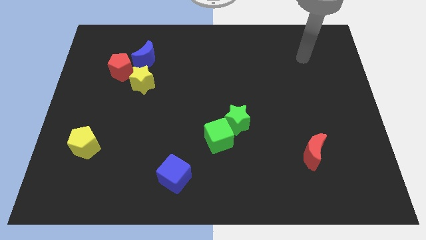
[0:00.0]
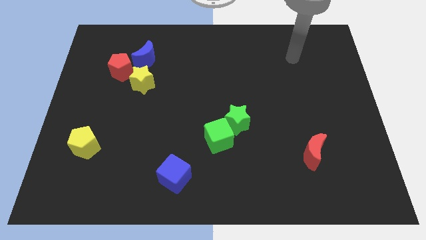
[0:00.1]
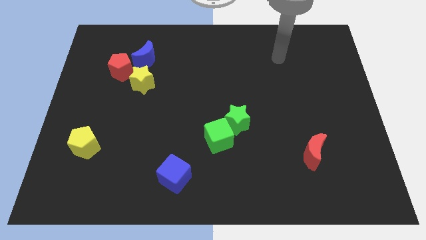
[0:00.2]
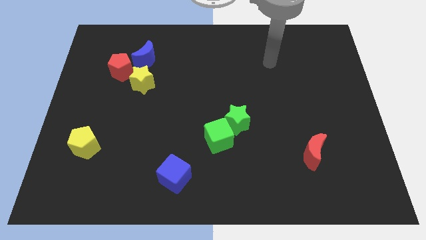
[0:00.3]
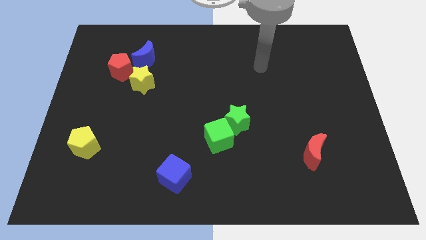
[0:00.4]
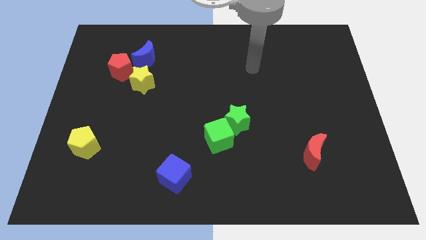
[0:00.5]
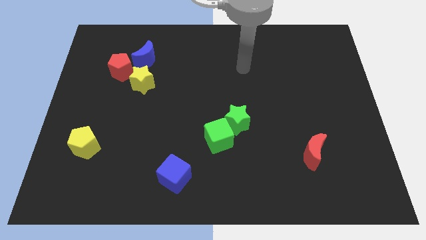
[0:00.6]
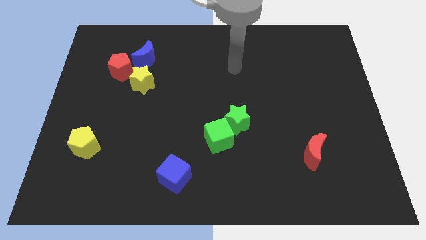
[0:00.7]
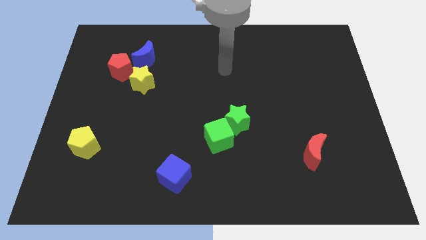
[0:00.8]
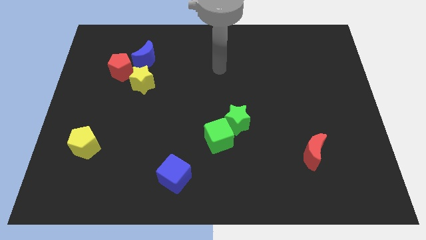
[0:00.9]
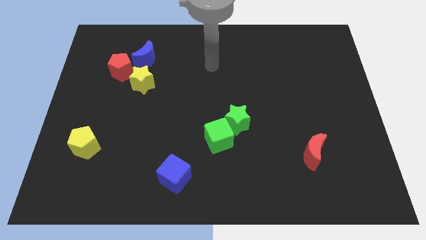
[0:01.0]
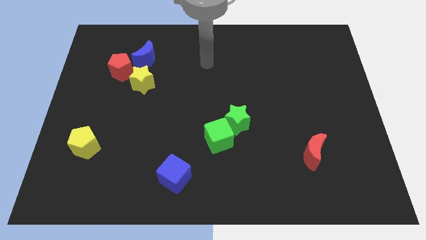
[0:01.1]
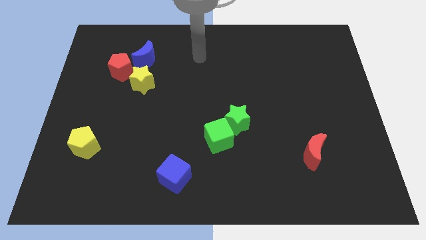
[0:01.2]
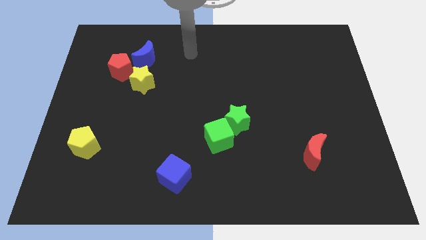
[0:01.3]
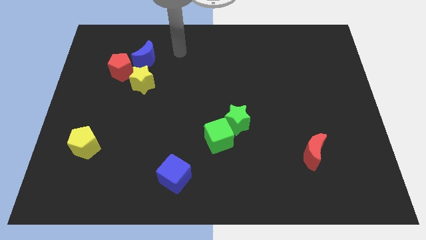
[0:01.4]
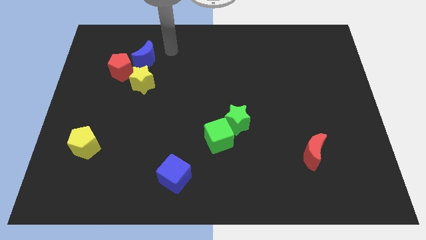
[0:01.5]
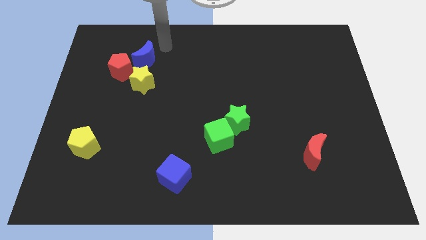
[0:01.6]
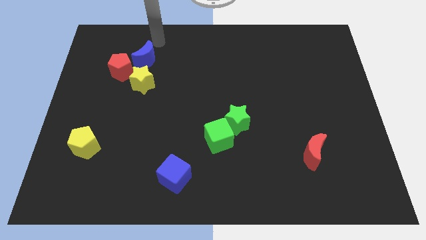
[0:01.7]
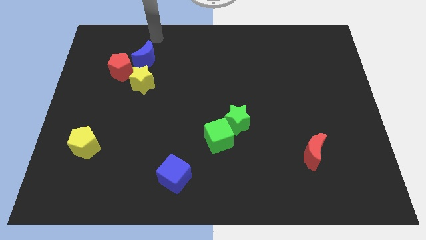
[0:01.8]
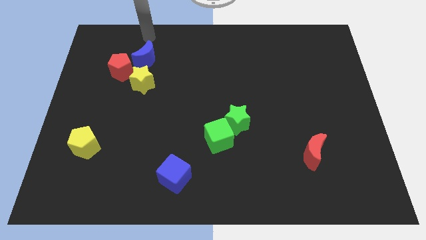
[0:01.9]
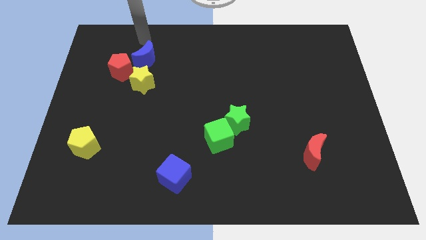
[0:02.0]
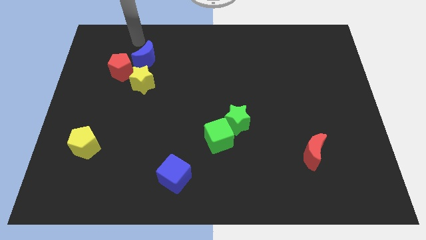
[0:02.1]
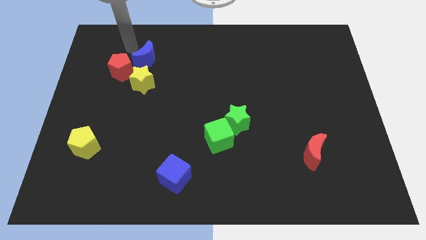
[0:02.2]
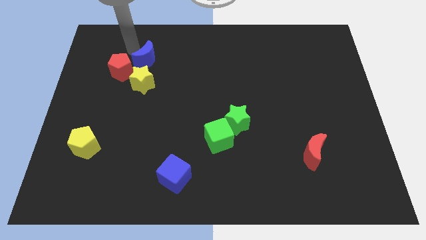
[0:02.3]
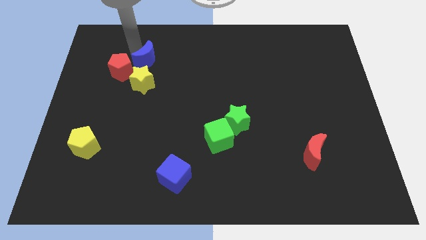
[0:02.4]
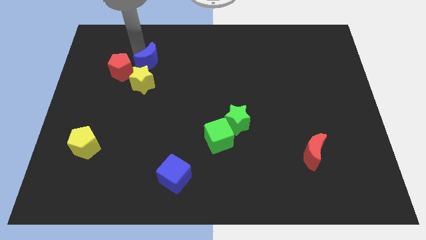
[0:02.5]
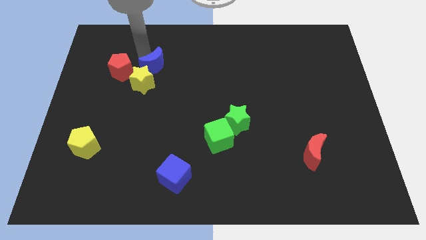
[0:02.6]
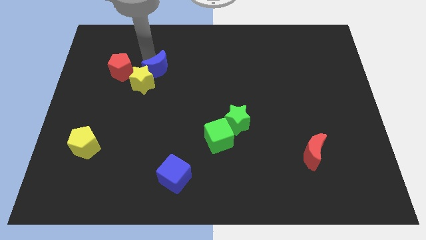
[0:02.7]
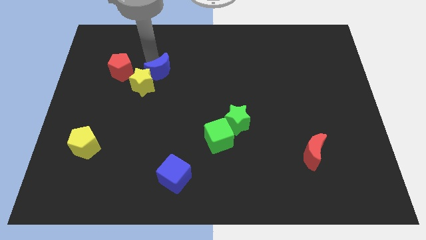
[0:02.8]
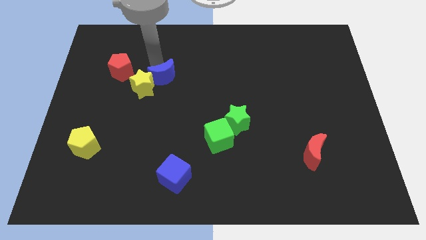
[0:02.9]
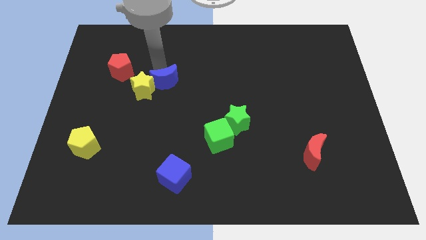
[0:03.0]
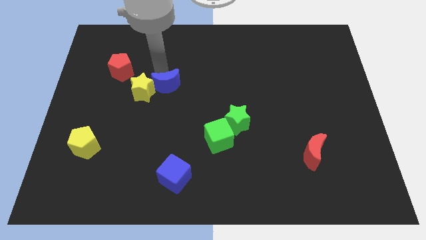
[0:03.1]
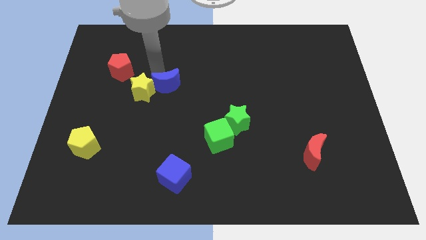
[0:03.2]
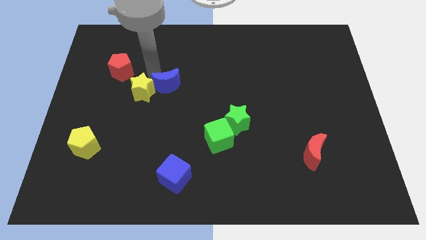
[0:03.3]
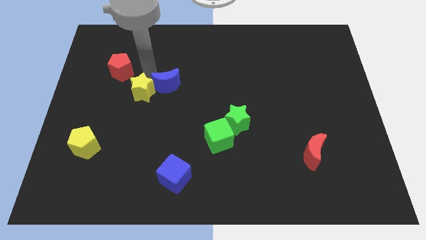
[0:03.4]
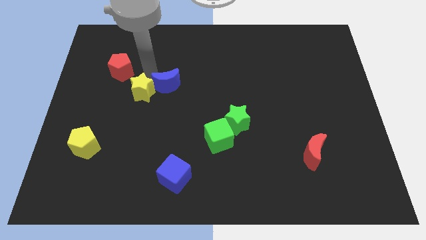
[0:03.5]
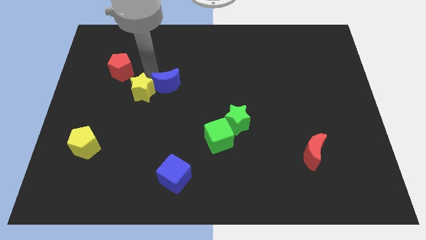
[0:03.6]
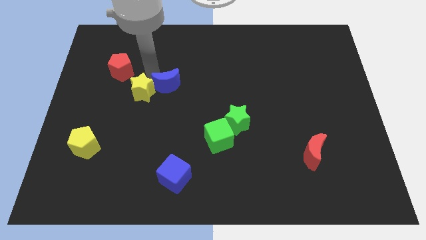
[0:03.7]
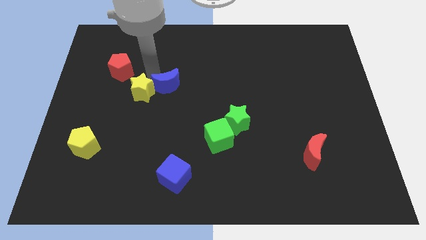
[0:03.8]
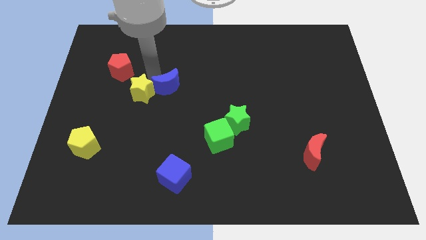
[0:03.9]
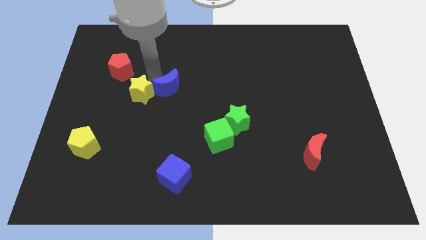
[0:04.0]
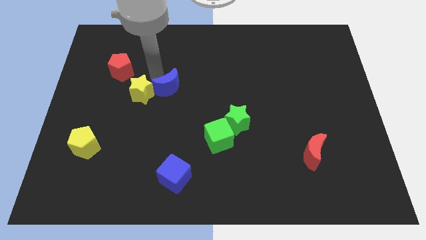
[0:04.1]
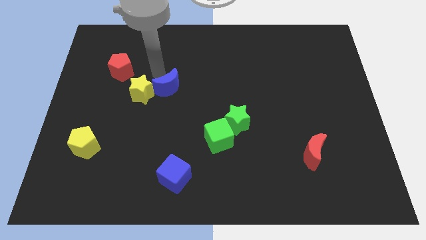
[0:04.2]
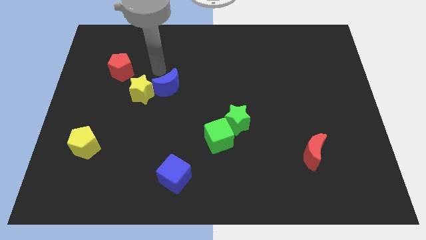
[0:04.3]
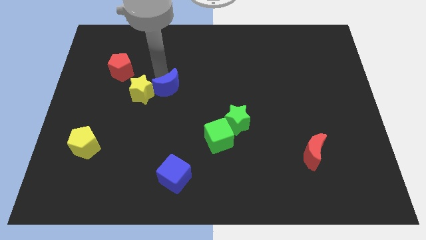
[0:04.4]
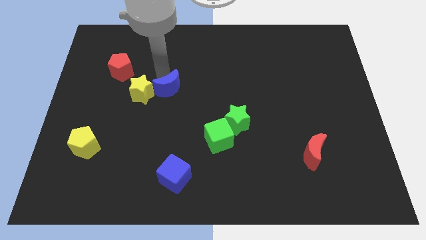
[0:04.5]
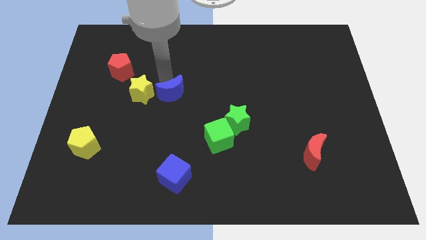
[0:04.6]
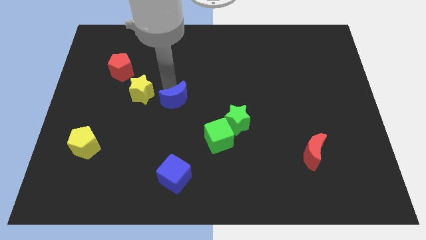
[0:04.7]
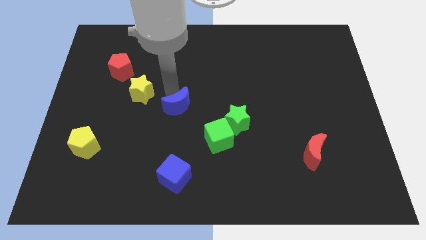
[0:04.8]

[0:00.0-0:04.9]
slide the blue moon to the top left of the green cube

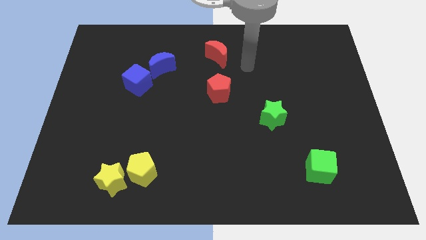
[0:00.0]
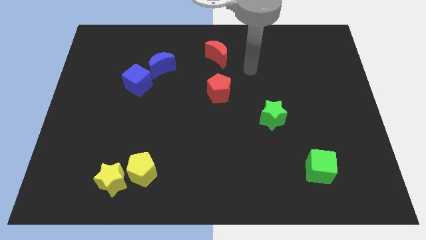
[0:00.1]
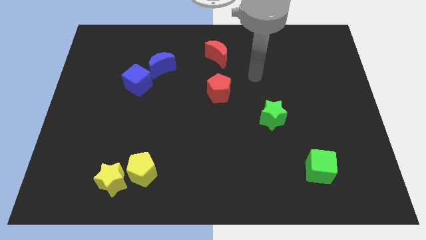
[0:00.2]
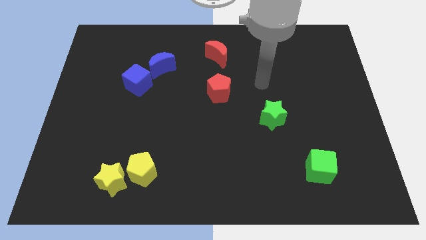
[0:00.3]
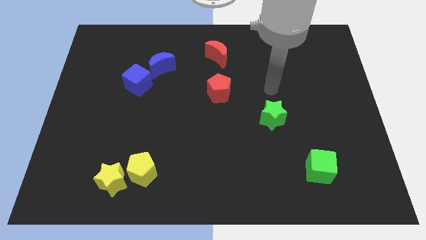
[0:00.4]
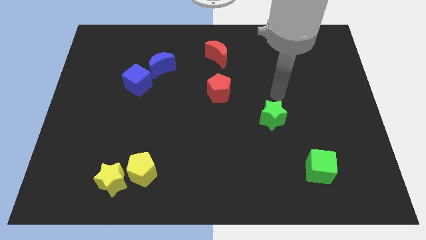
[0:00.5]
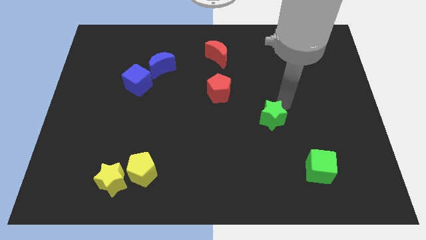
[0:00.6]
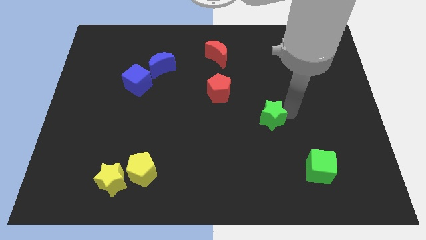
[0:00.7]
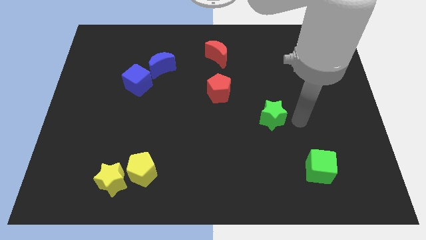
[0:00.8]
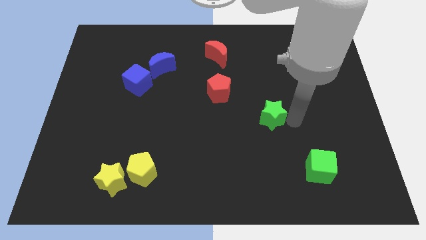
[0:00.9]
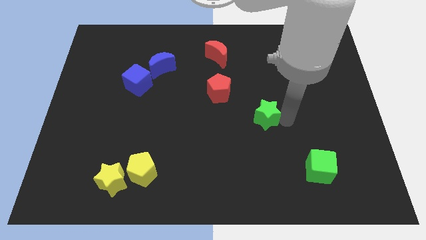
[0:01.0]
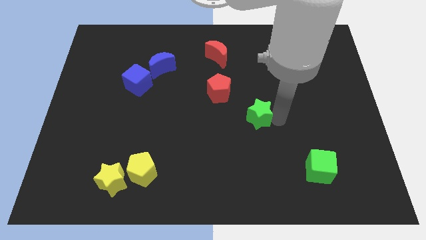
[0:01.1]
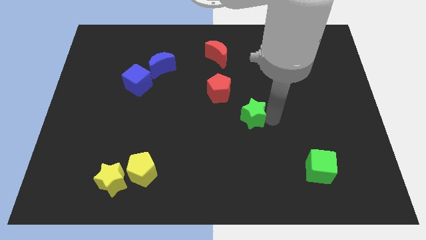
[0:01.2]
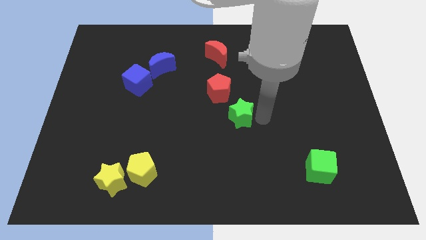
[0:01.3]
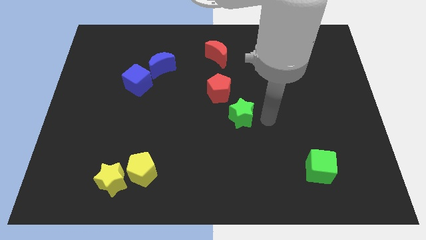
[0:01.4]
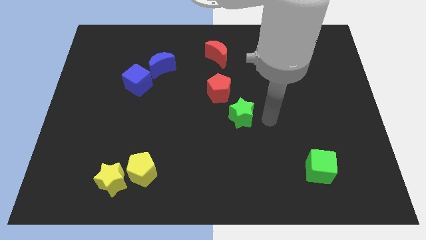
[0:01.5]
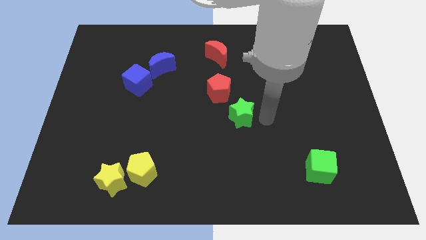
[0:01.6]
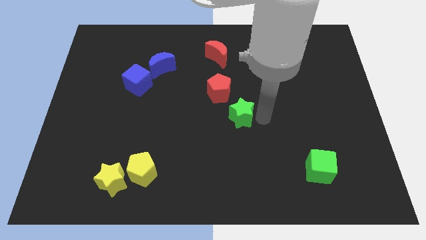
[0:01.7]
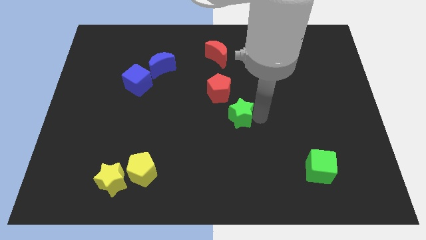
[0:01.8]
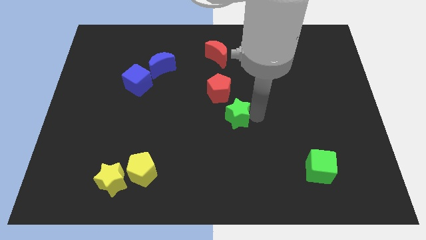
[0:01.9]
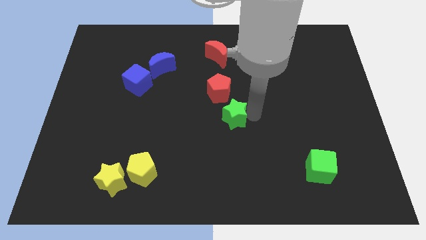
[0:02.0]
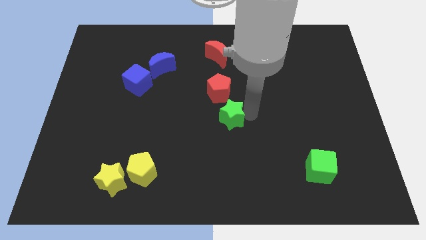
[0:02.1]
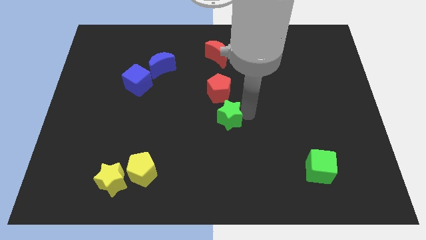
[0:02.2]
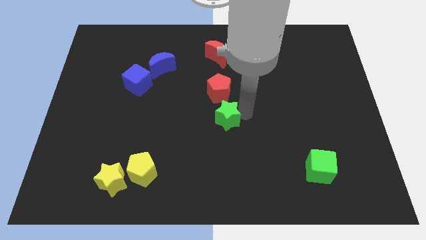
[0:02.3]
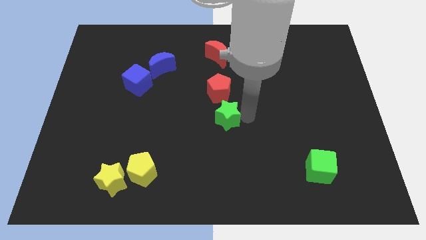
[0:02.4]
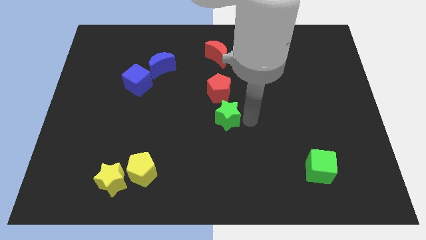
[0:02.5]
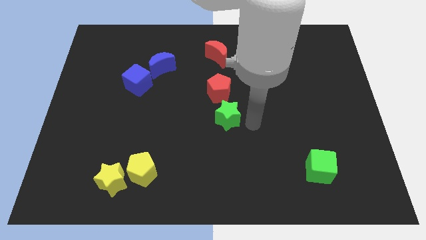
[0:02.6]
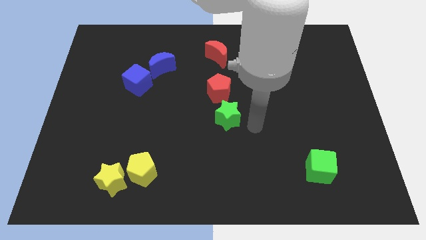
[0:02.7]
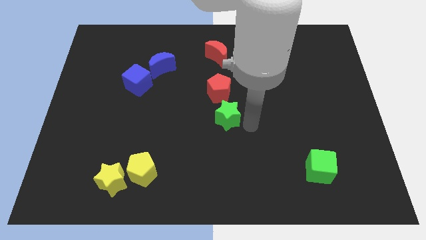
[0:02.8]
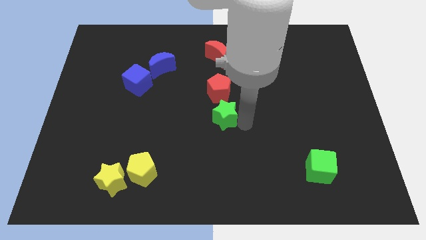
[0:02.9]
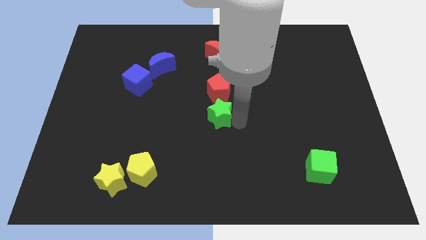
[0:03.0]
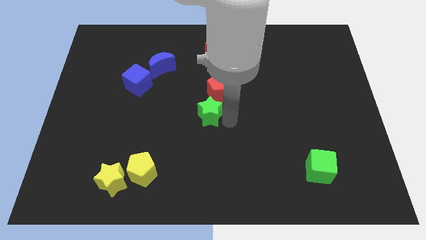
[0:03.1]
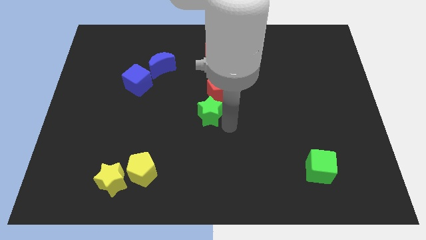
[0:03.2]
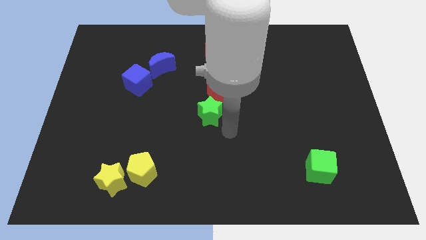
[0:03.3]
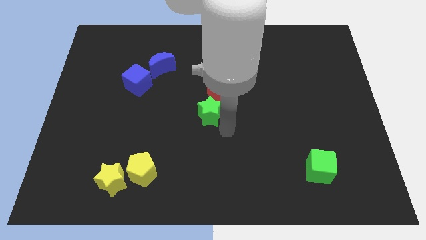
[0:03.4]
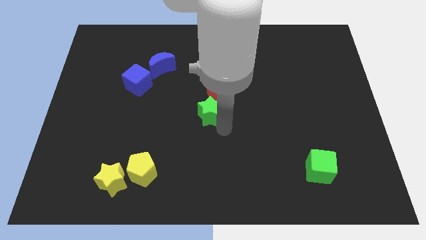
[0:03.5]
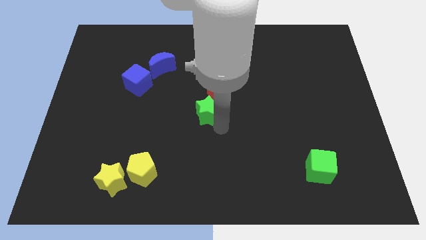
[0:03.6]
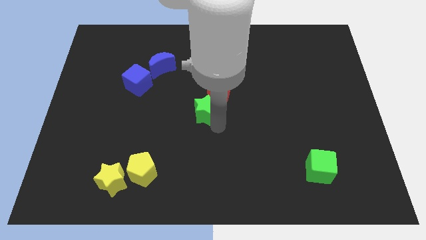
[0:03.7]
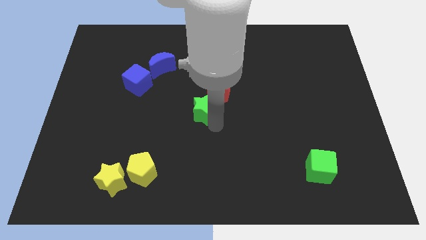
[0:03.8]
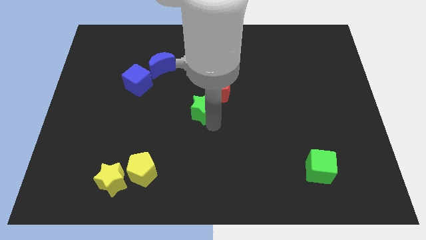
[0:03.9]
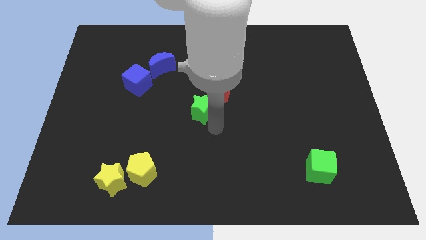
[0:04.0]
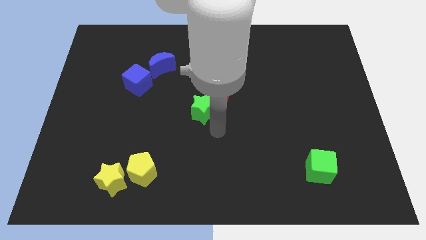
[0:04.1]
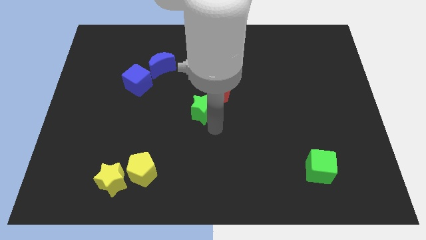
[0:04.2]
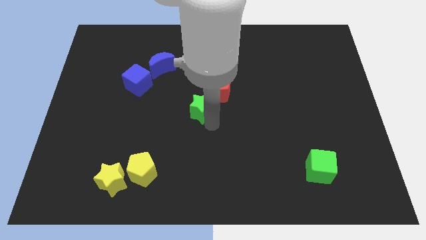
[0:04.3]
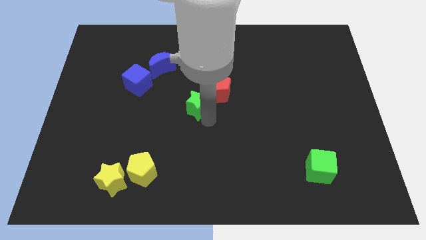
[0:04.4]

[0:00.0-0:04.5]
slide the green star to the left side of the red pentagon
